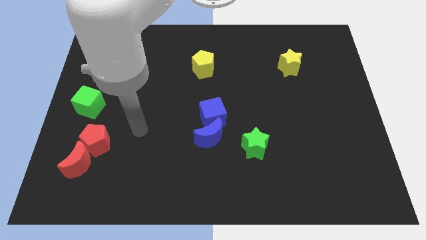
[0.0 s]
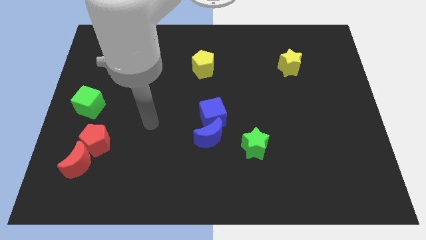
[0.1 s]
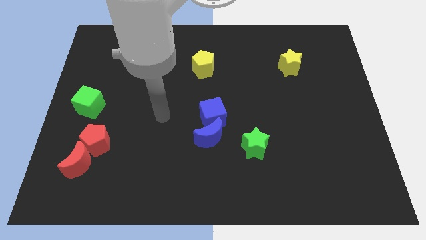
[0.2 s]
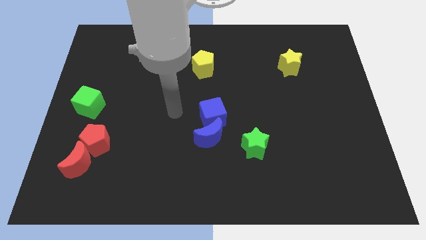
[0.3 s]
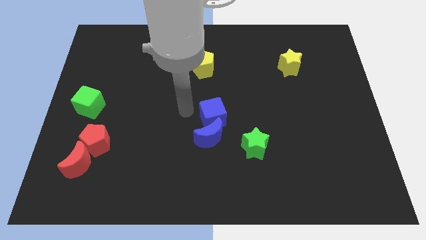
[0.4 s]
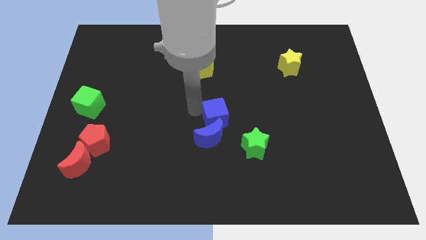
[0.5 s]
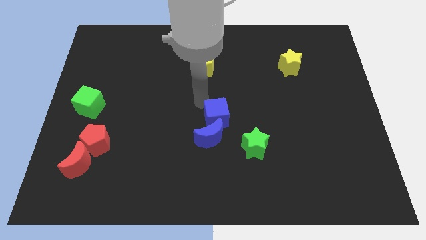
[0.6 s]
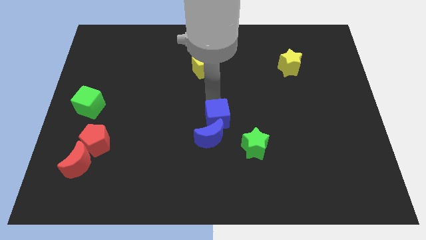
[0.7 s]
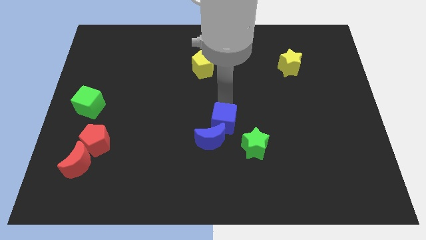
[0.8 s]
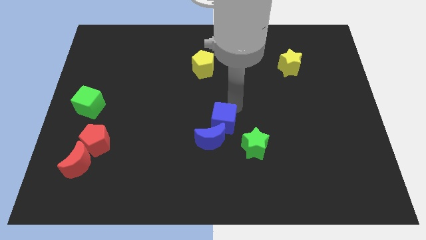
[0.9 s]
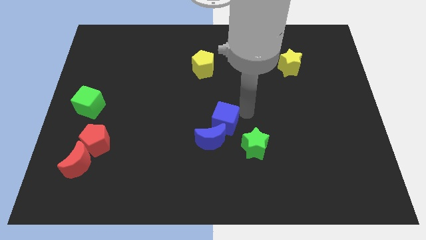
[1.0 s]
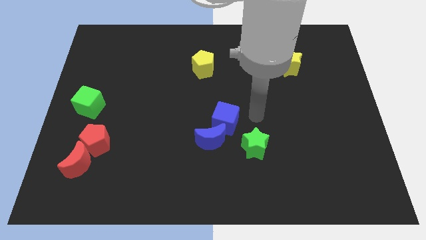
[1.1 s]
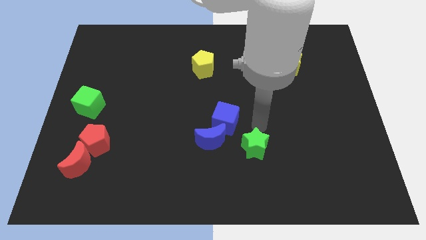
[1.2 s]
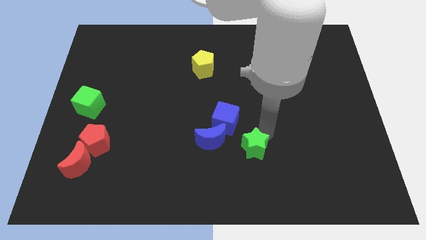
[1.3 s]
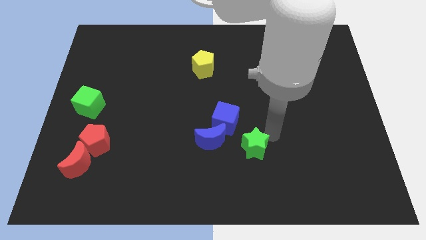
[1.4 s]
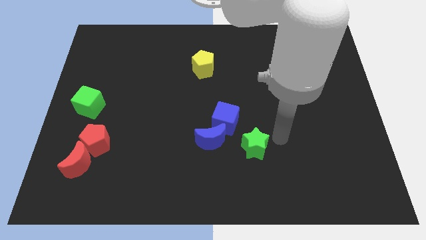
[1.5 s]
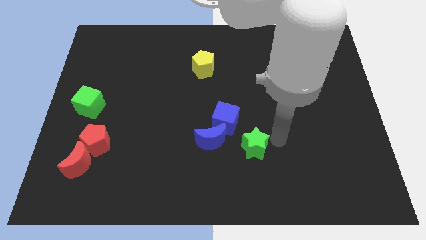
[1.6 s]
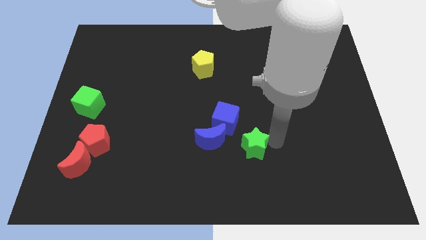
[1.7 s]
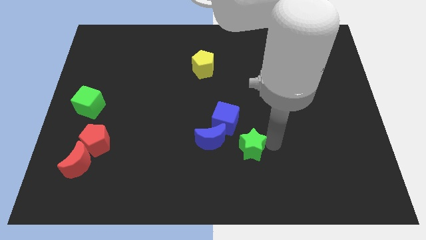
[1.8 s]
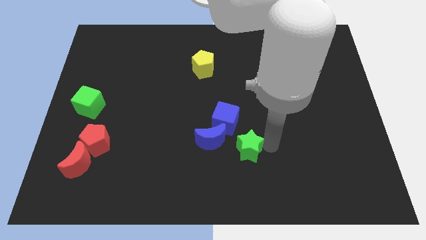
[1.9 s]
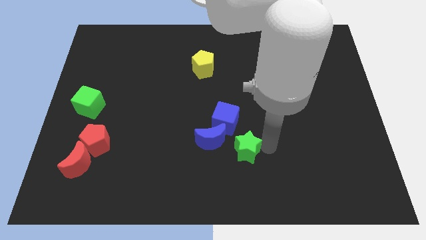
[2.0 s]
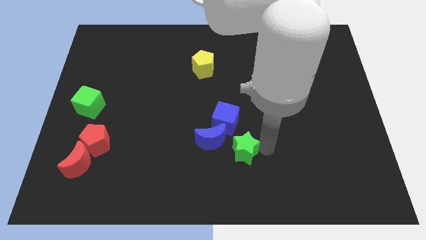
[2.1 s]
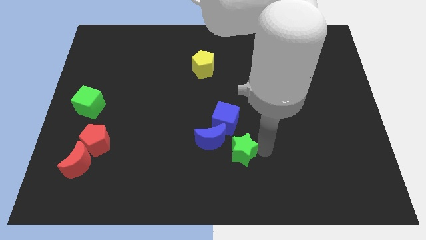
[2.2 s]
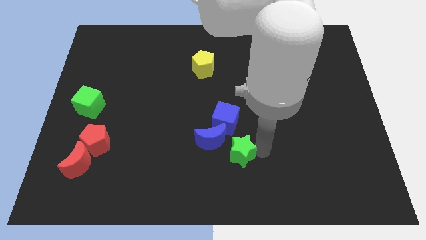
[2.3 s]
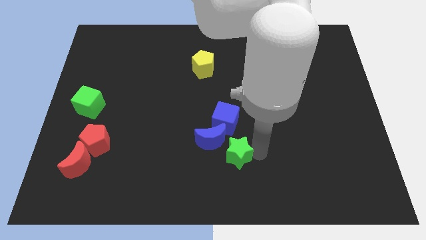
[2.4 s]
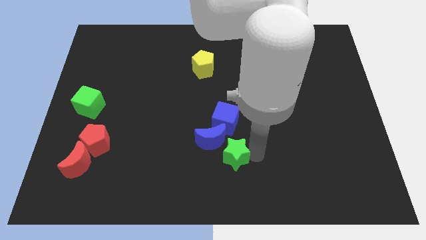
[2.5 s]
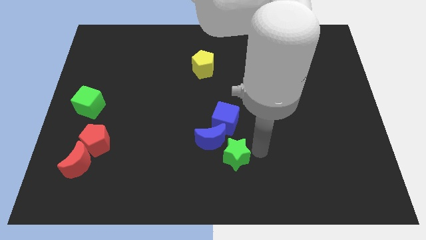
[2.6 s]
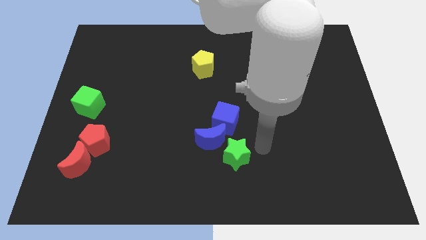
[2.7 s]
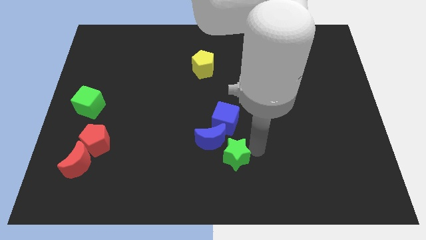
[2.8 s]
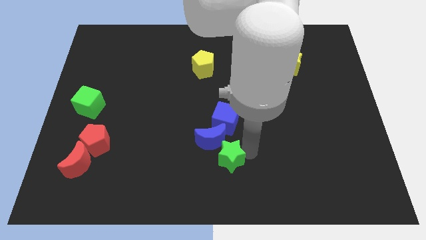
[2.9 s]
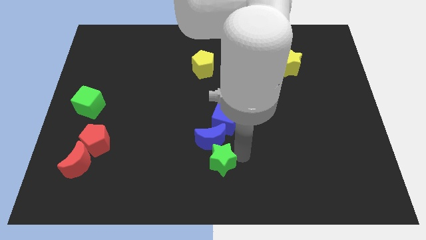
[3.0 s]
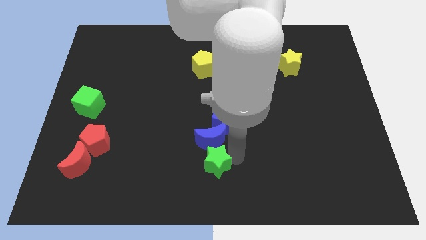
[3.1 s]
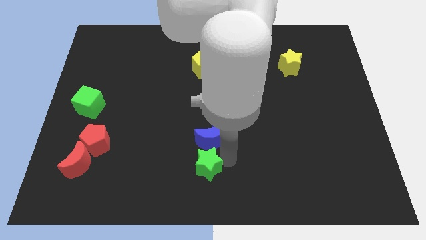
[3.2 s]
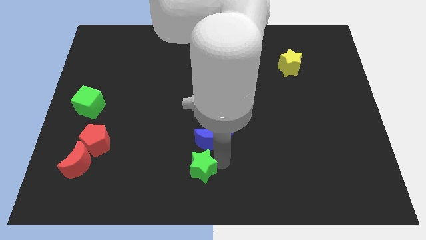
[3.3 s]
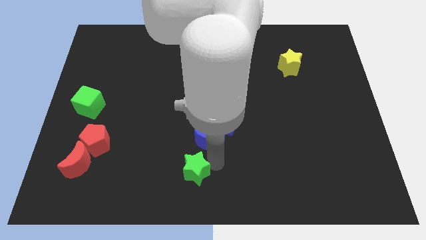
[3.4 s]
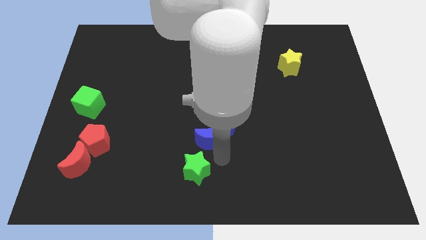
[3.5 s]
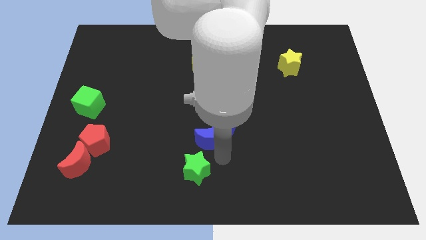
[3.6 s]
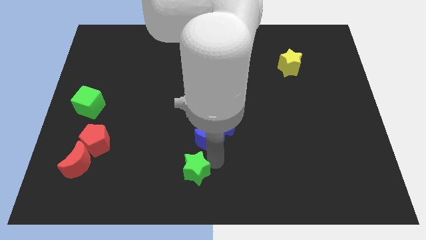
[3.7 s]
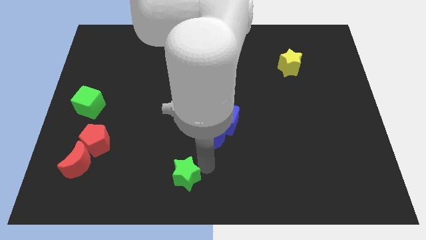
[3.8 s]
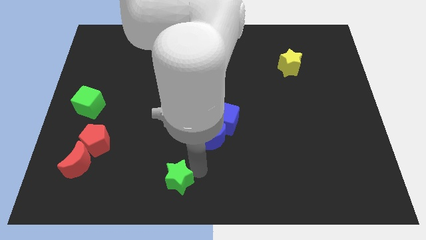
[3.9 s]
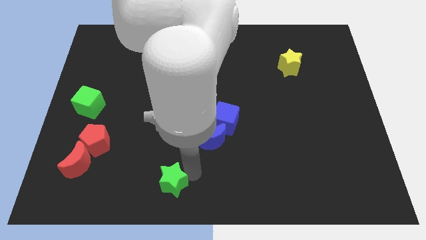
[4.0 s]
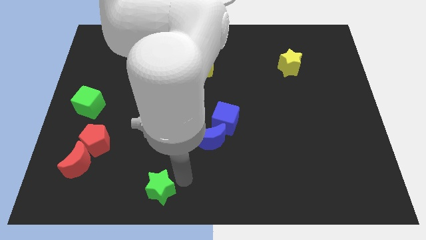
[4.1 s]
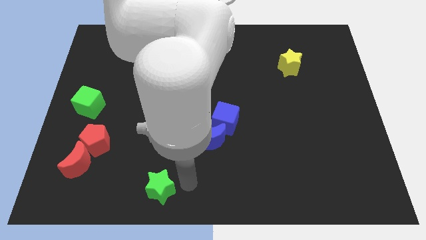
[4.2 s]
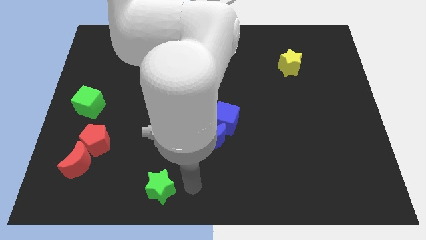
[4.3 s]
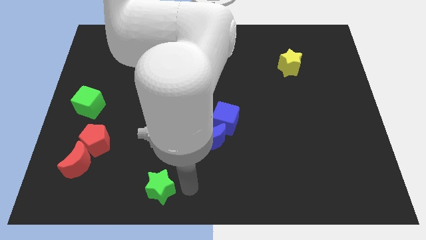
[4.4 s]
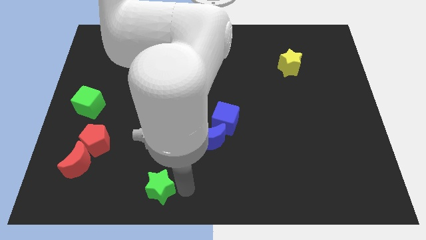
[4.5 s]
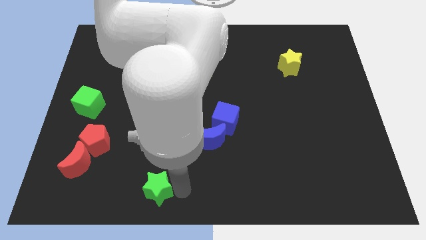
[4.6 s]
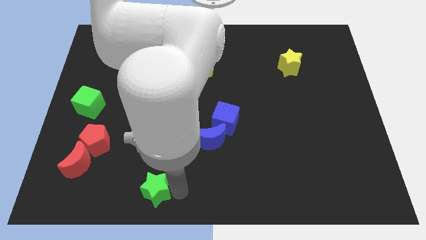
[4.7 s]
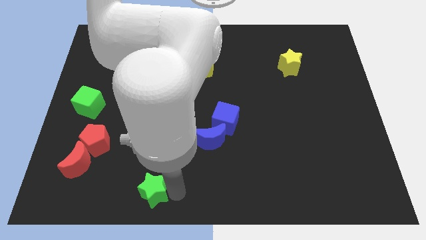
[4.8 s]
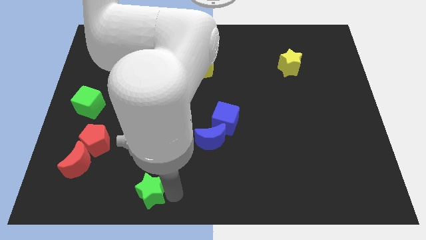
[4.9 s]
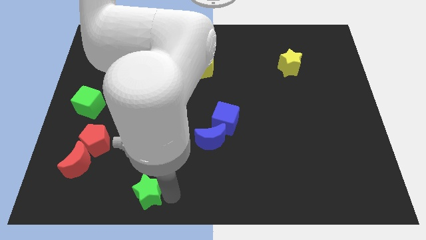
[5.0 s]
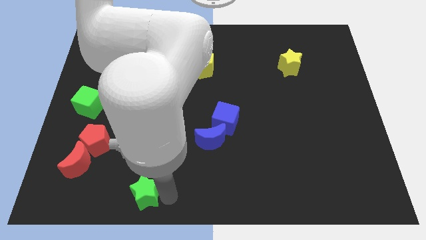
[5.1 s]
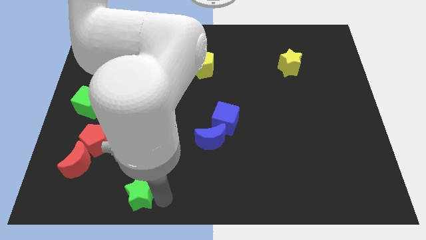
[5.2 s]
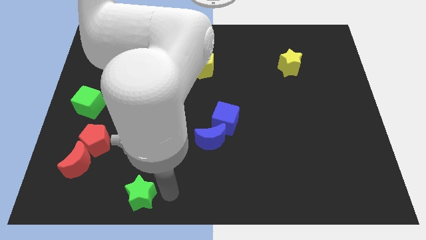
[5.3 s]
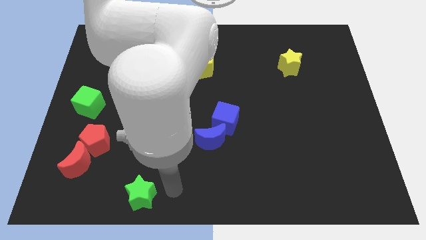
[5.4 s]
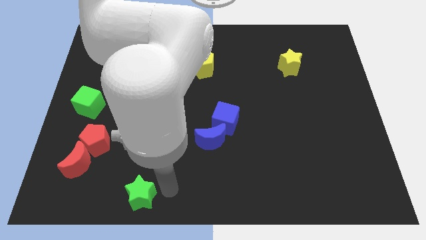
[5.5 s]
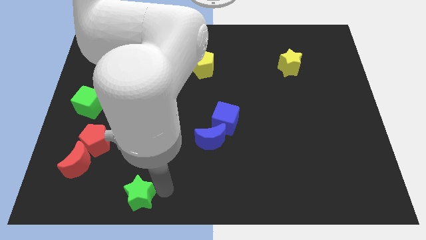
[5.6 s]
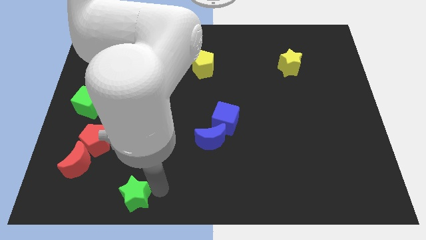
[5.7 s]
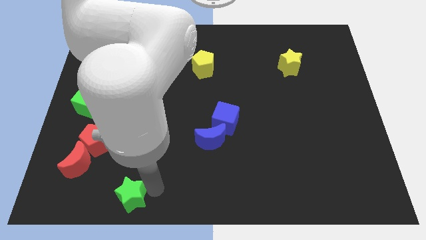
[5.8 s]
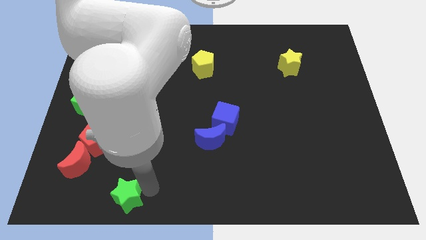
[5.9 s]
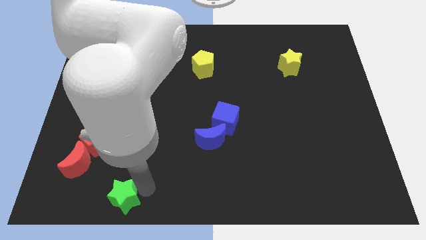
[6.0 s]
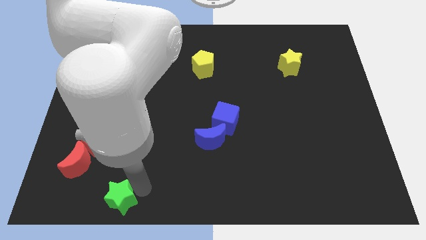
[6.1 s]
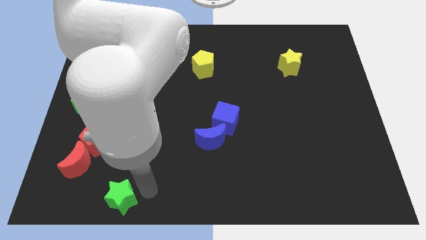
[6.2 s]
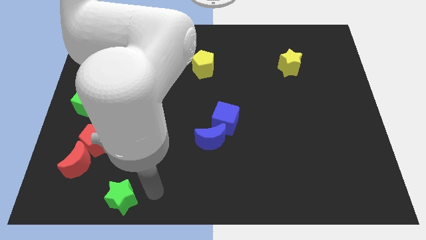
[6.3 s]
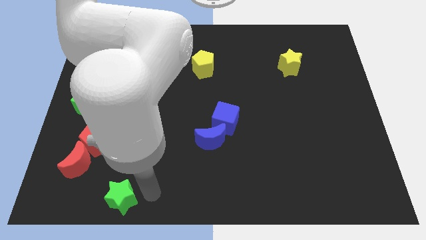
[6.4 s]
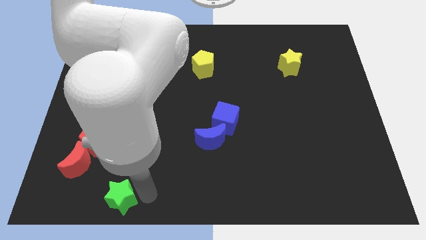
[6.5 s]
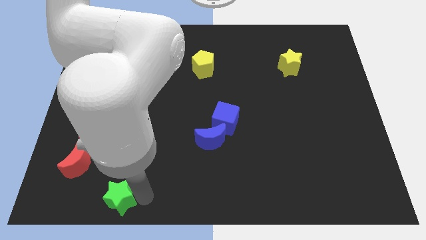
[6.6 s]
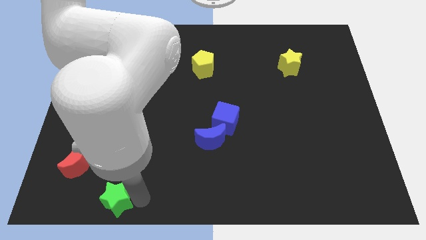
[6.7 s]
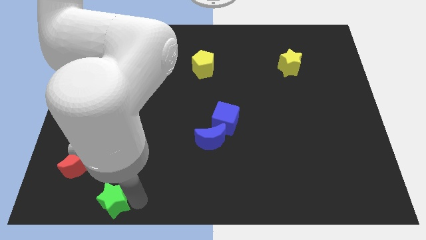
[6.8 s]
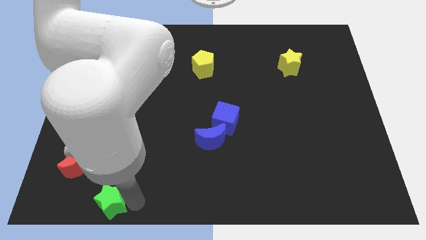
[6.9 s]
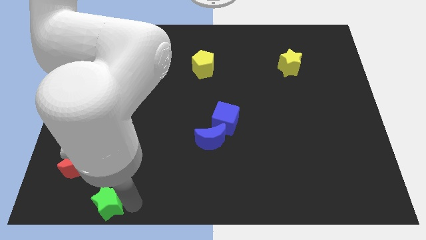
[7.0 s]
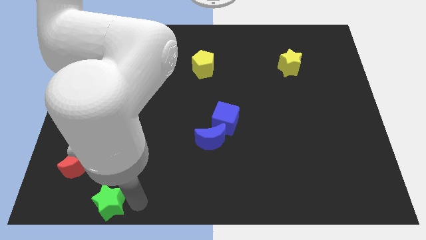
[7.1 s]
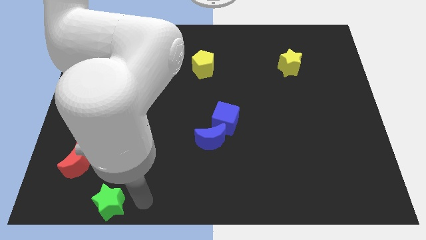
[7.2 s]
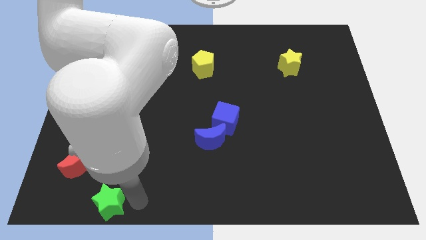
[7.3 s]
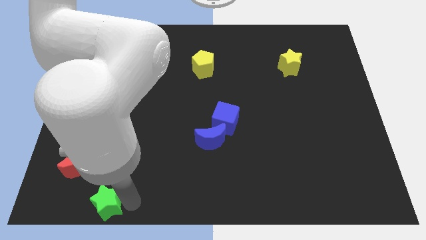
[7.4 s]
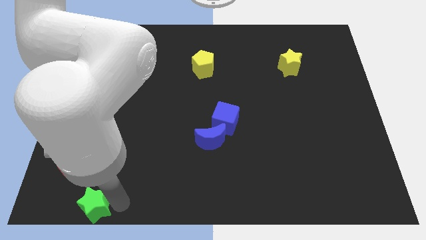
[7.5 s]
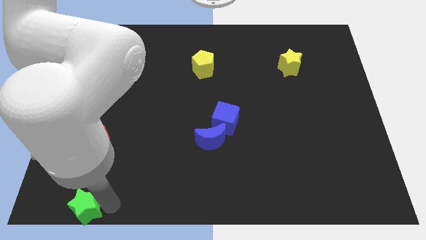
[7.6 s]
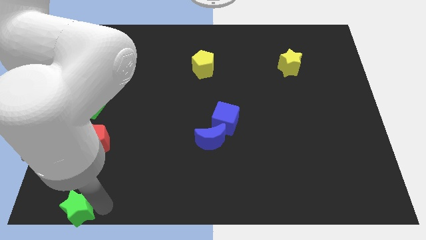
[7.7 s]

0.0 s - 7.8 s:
move the green star to the lower left corner
